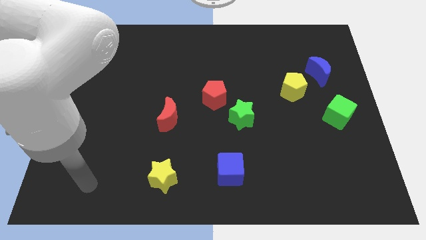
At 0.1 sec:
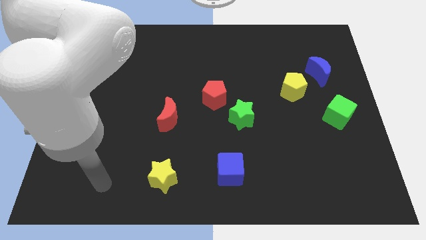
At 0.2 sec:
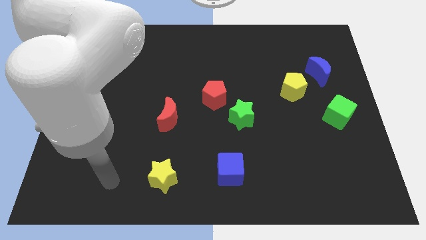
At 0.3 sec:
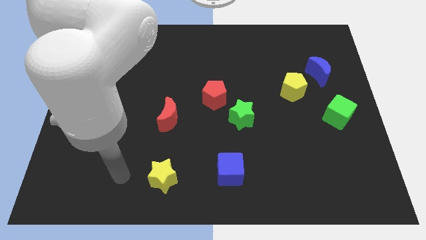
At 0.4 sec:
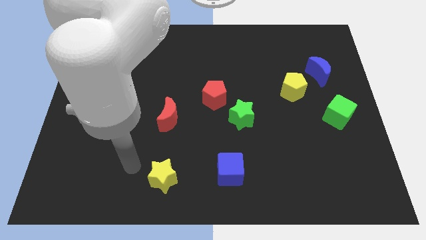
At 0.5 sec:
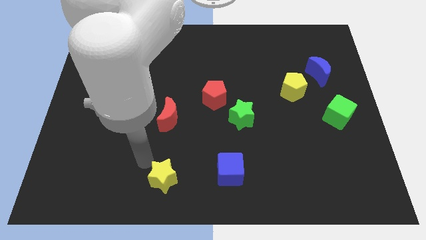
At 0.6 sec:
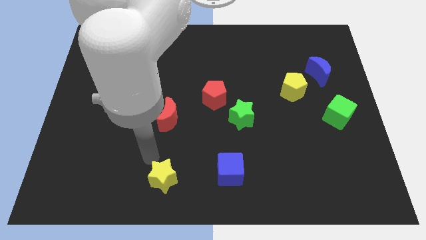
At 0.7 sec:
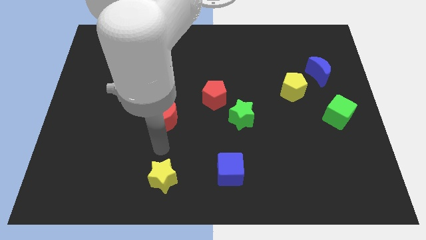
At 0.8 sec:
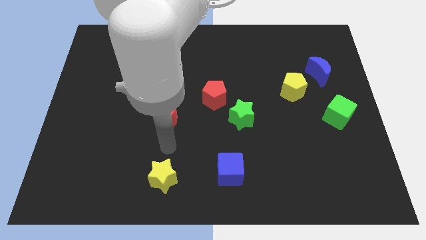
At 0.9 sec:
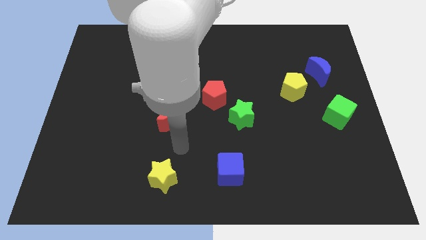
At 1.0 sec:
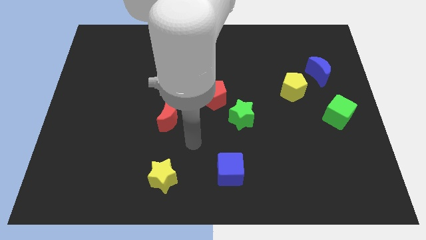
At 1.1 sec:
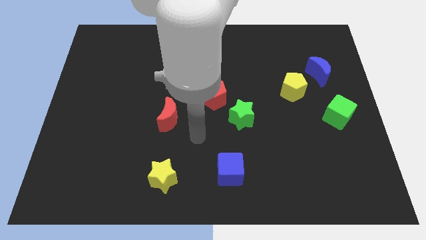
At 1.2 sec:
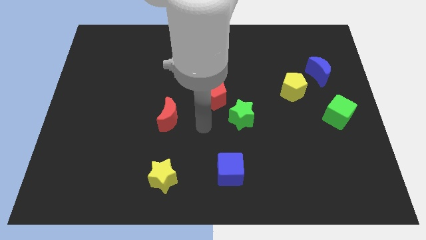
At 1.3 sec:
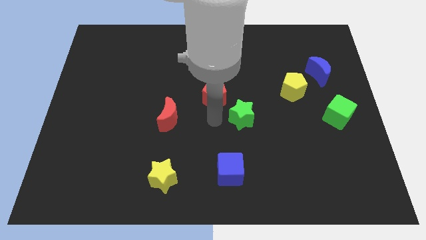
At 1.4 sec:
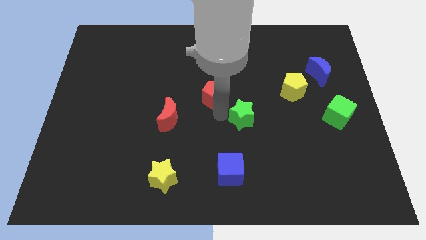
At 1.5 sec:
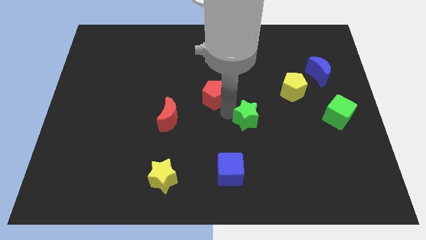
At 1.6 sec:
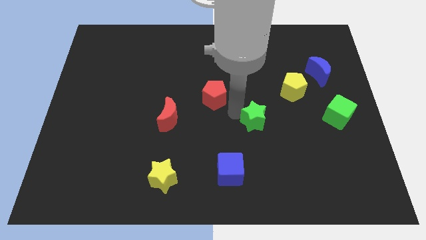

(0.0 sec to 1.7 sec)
move the red pentagon away from the green star

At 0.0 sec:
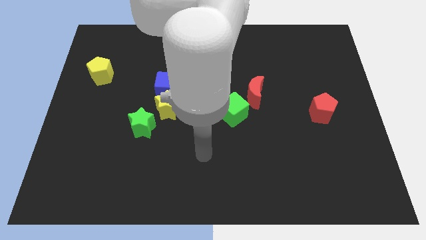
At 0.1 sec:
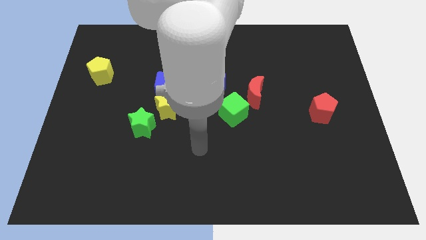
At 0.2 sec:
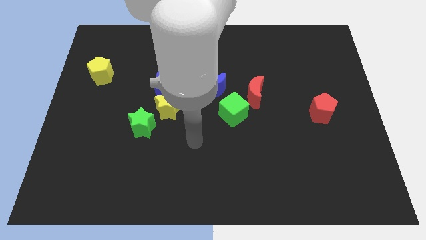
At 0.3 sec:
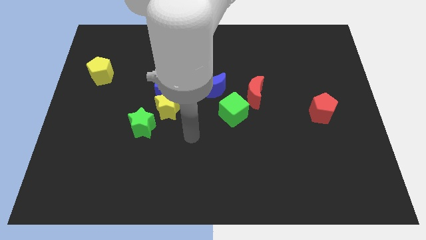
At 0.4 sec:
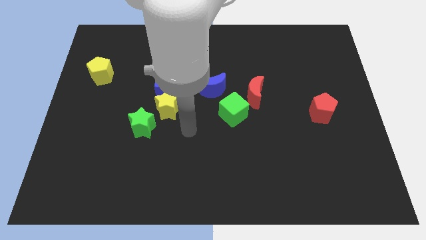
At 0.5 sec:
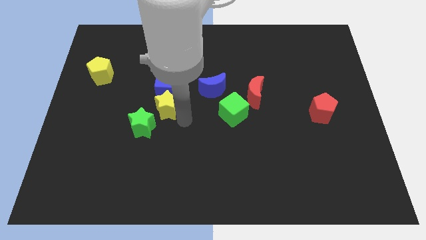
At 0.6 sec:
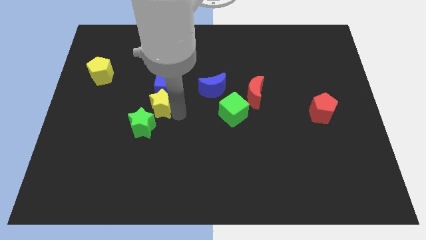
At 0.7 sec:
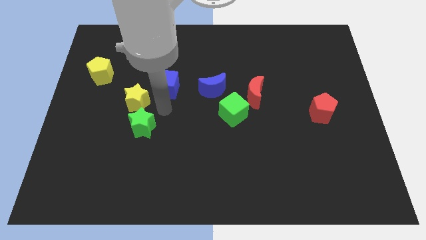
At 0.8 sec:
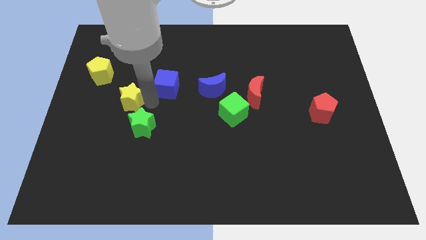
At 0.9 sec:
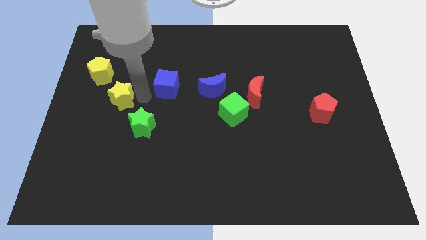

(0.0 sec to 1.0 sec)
pull the blue cube apart from the yellow star

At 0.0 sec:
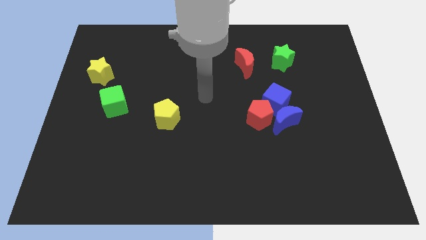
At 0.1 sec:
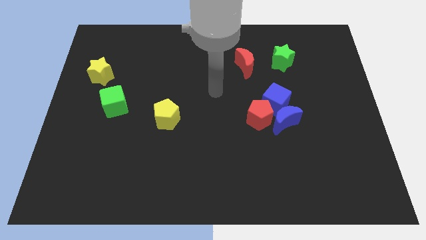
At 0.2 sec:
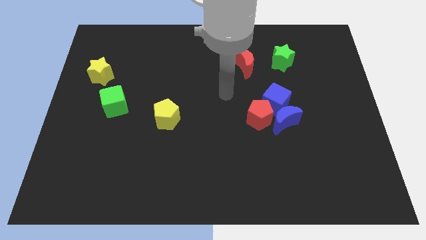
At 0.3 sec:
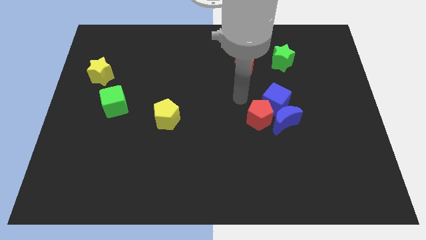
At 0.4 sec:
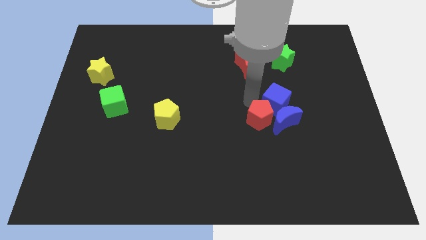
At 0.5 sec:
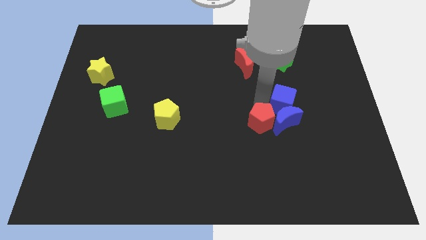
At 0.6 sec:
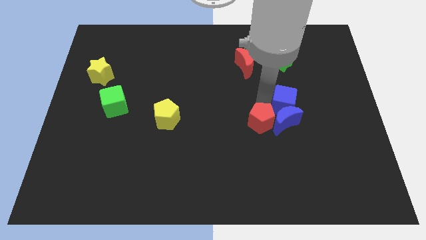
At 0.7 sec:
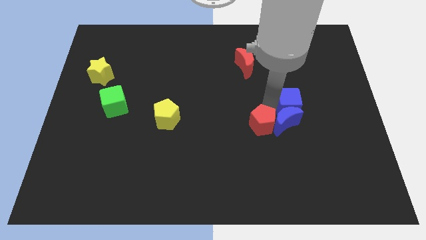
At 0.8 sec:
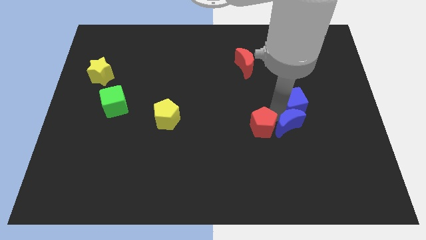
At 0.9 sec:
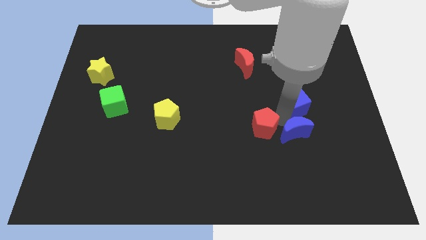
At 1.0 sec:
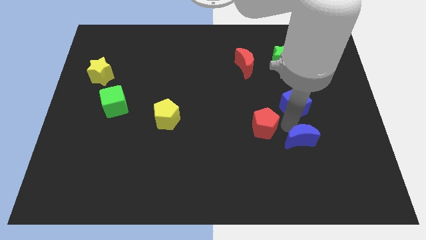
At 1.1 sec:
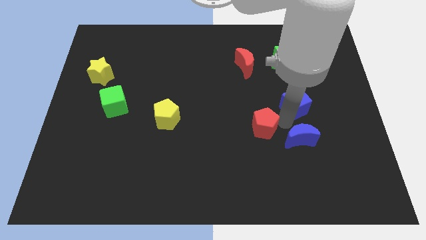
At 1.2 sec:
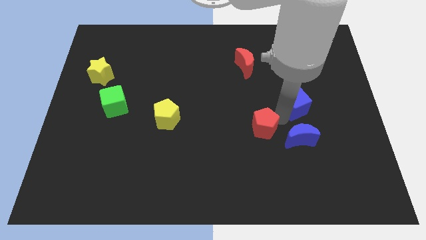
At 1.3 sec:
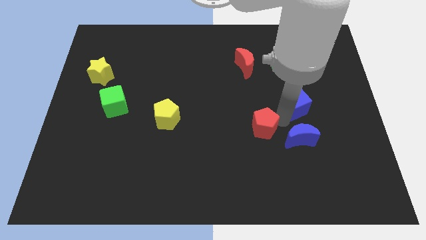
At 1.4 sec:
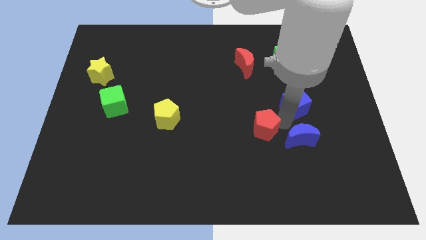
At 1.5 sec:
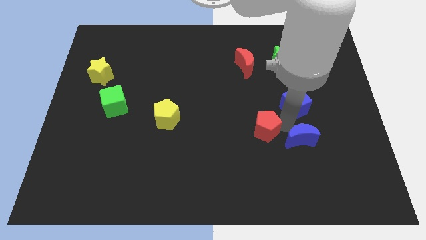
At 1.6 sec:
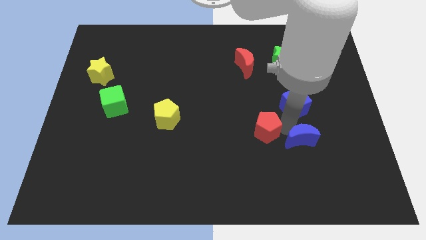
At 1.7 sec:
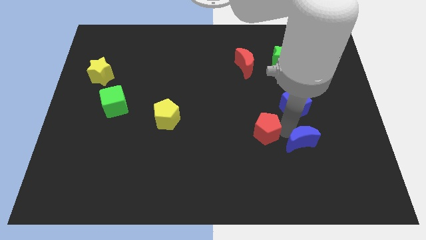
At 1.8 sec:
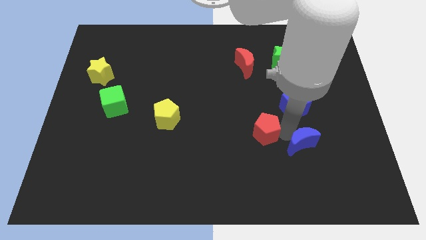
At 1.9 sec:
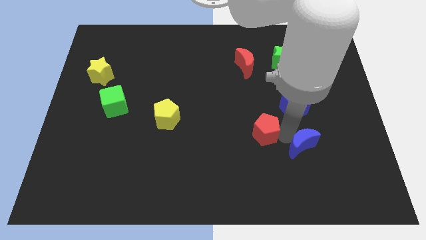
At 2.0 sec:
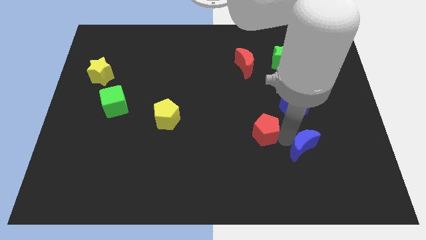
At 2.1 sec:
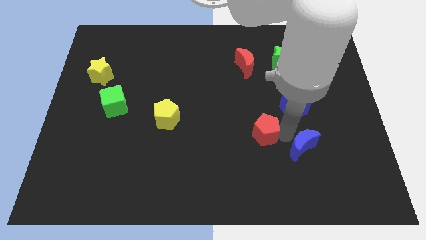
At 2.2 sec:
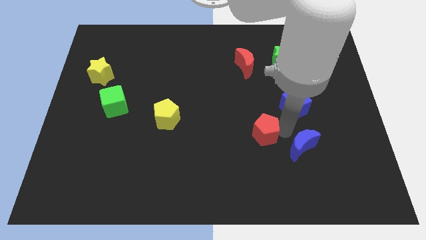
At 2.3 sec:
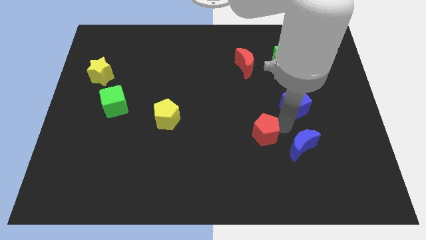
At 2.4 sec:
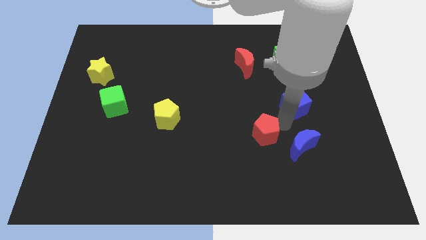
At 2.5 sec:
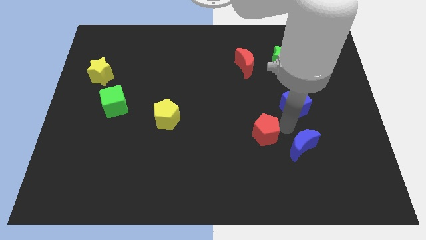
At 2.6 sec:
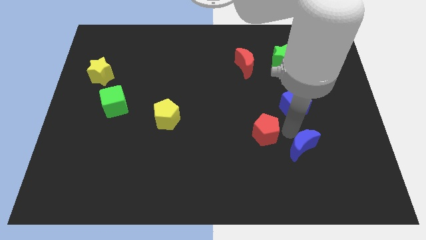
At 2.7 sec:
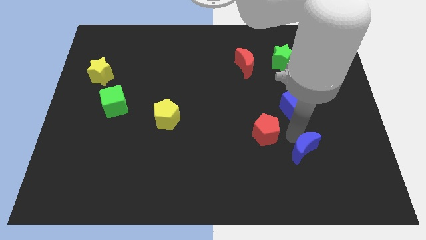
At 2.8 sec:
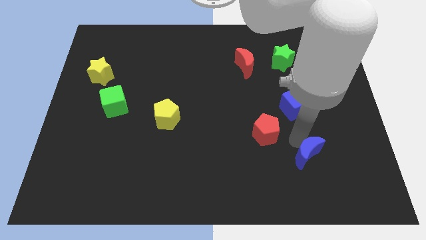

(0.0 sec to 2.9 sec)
move the blue moon away from the red pentagon and blue cube

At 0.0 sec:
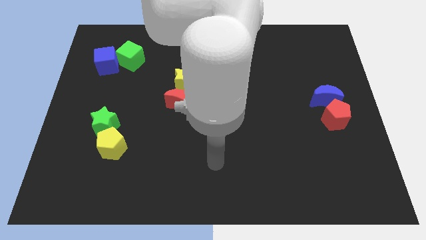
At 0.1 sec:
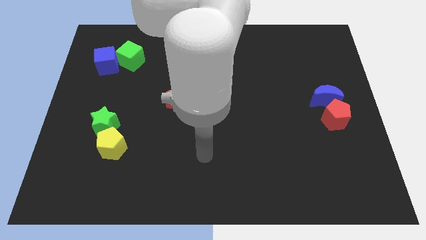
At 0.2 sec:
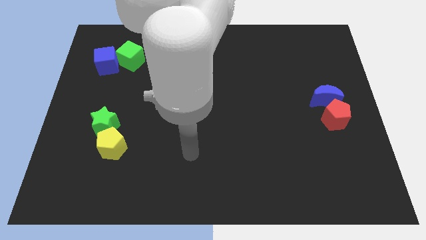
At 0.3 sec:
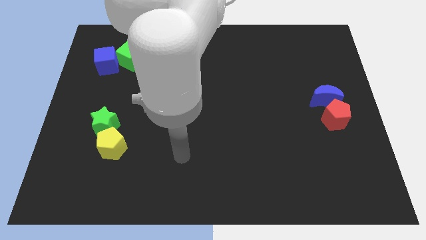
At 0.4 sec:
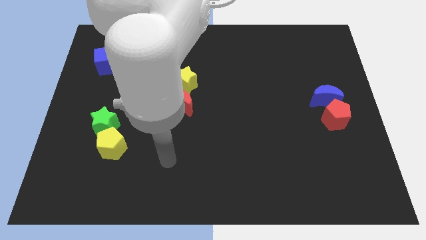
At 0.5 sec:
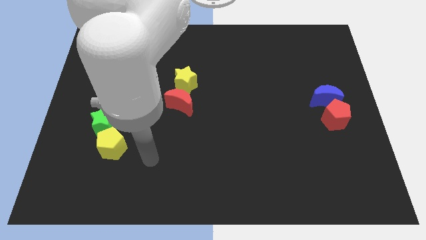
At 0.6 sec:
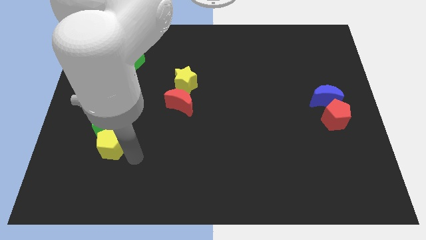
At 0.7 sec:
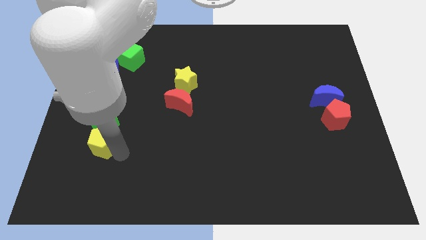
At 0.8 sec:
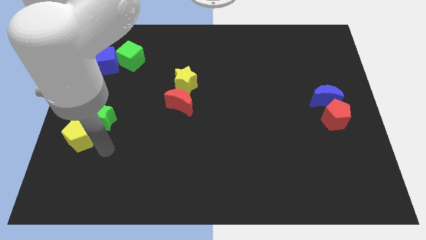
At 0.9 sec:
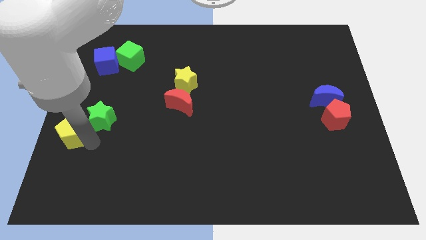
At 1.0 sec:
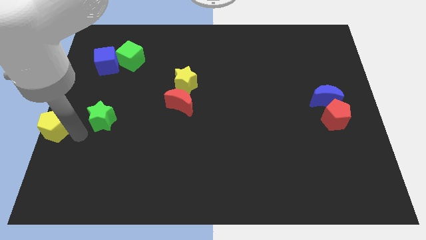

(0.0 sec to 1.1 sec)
move the green star away from the yellow pentagon

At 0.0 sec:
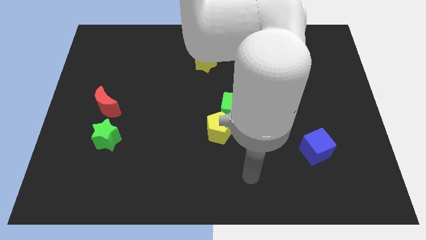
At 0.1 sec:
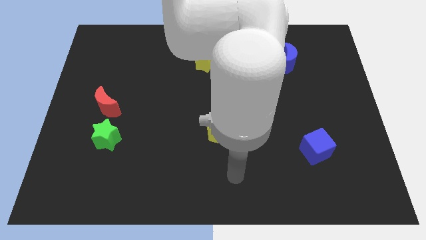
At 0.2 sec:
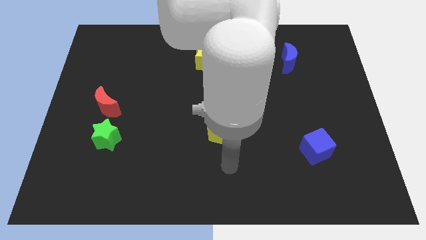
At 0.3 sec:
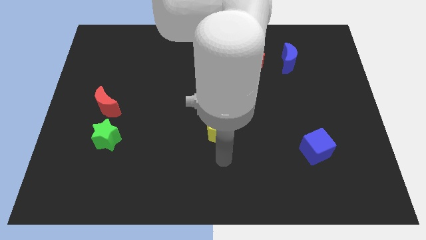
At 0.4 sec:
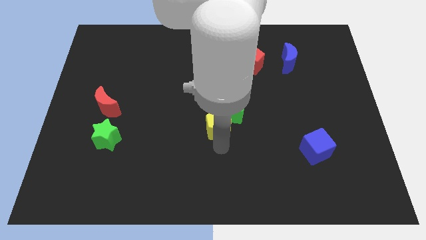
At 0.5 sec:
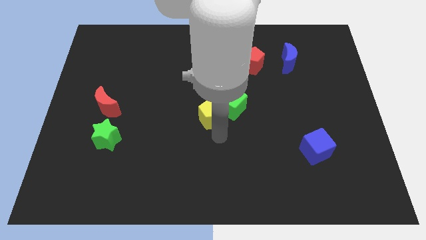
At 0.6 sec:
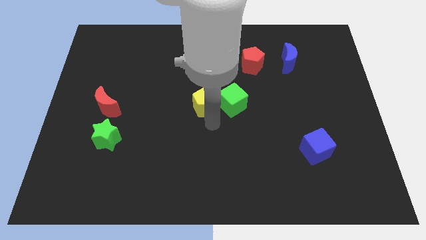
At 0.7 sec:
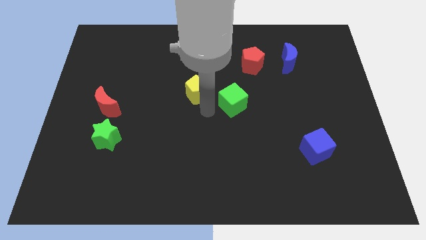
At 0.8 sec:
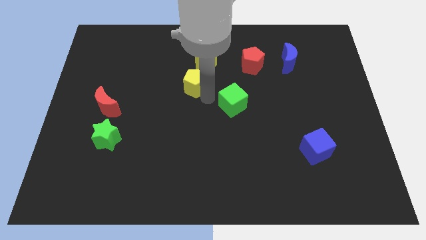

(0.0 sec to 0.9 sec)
separate the green cube from the yellow pentagon

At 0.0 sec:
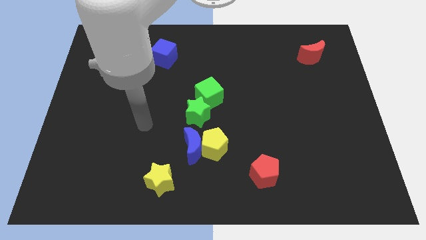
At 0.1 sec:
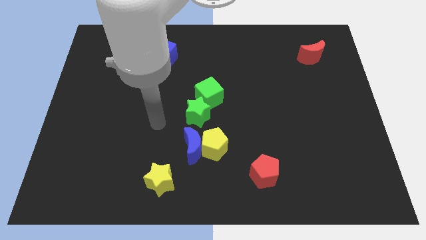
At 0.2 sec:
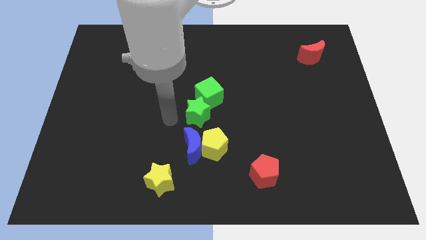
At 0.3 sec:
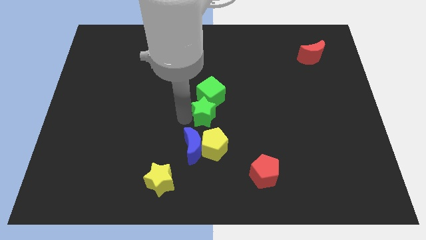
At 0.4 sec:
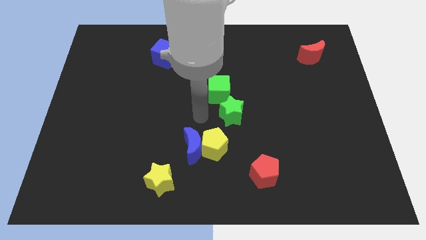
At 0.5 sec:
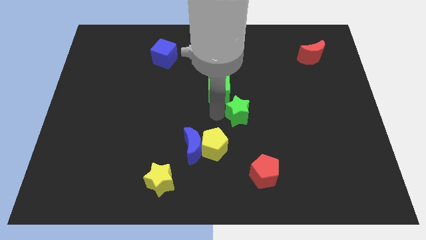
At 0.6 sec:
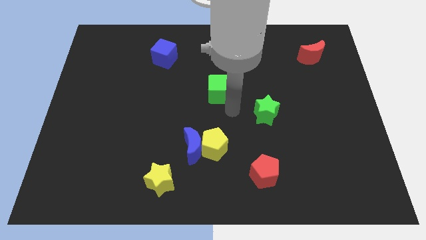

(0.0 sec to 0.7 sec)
separate the green cube from the green star

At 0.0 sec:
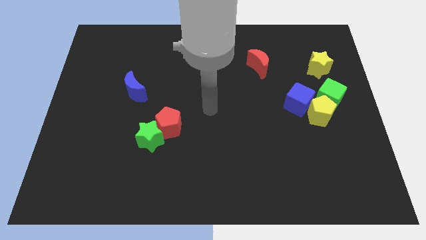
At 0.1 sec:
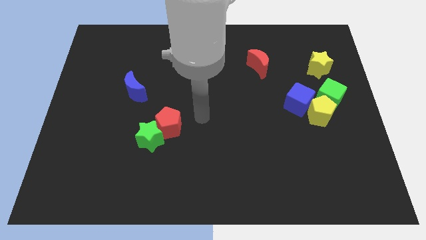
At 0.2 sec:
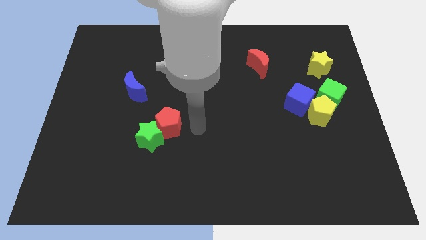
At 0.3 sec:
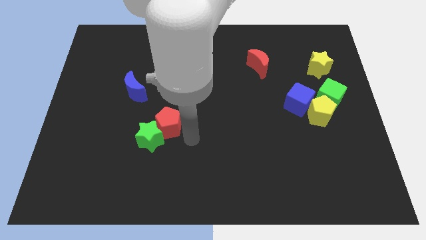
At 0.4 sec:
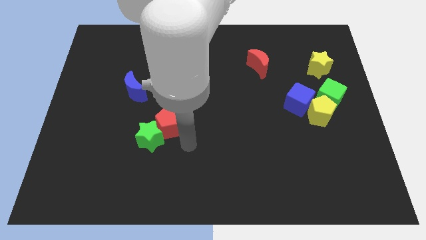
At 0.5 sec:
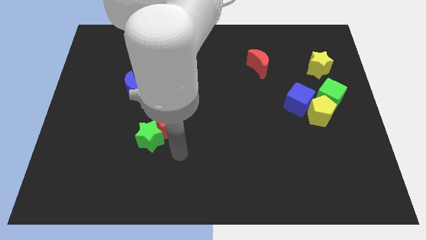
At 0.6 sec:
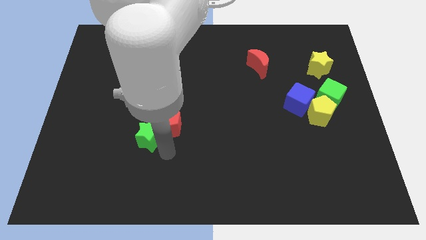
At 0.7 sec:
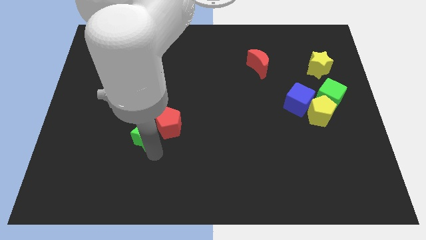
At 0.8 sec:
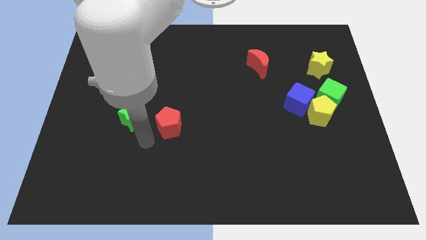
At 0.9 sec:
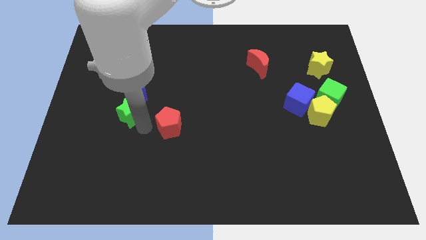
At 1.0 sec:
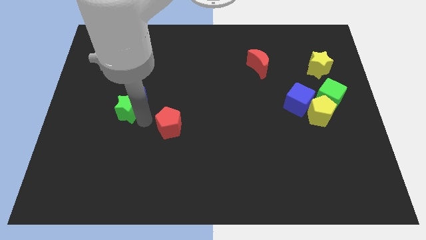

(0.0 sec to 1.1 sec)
separate the red pentagon from the green star
